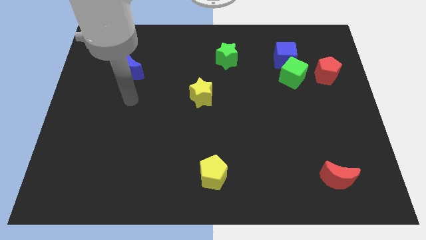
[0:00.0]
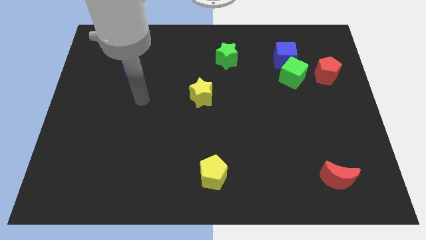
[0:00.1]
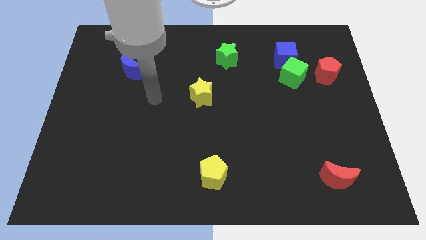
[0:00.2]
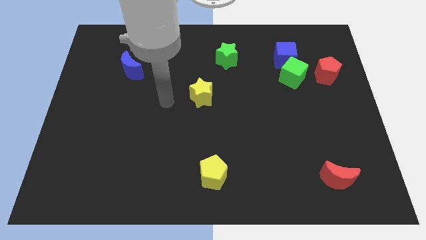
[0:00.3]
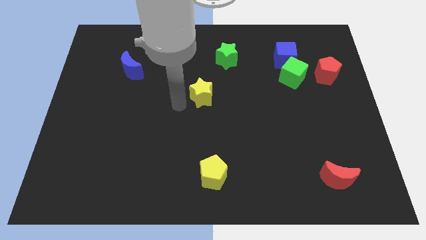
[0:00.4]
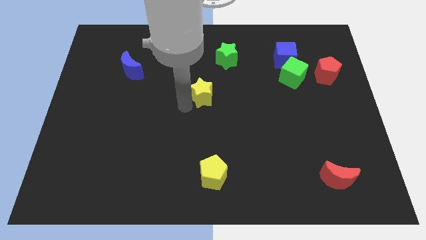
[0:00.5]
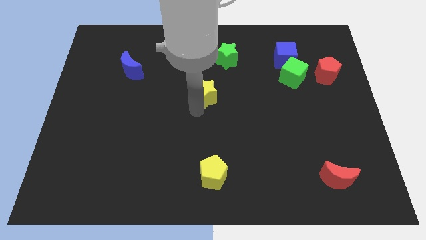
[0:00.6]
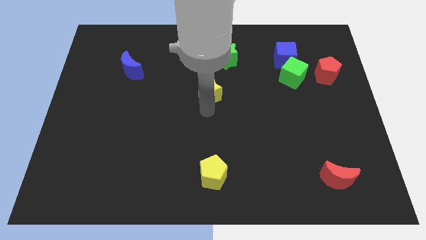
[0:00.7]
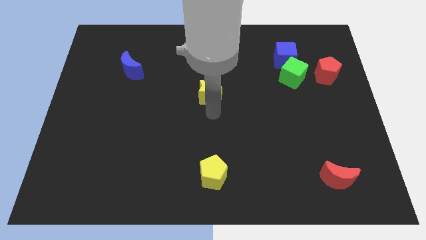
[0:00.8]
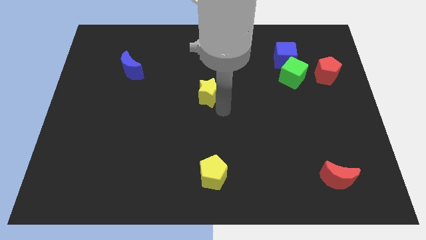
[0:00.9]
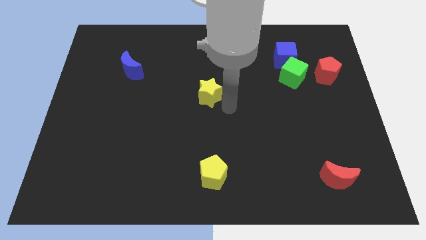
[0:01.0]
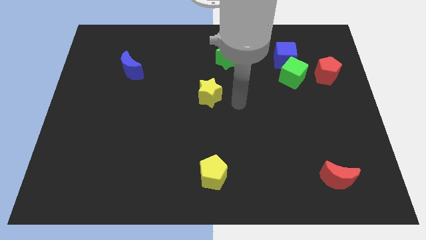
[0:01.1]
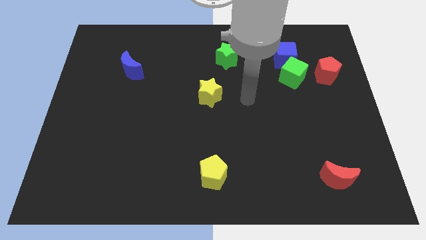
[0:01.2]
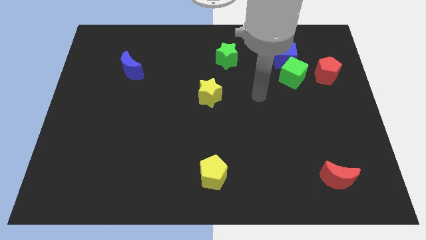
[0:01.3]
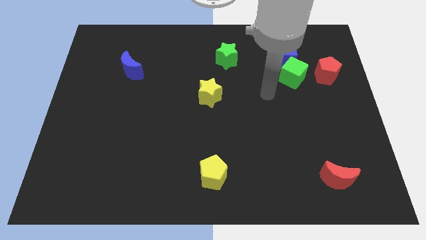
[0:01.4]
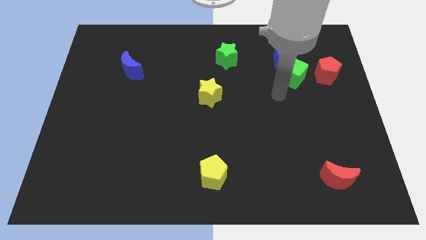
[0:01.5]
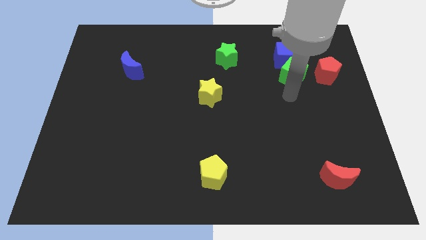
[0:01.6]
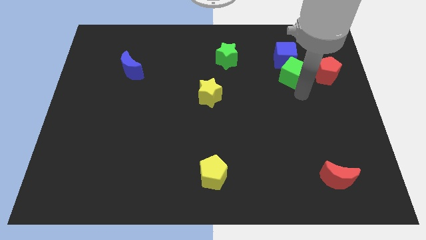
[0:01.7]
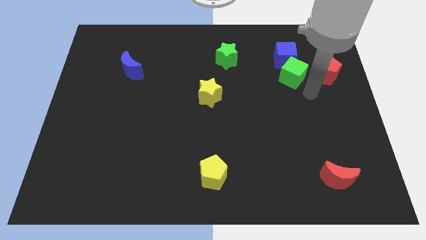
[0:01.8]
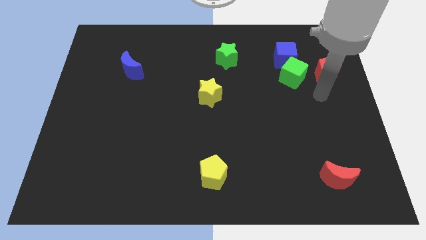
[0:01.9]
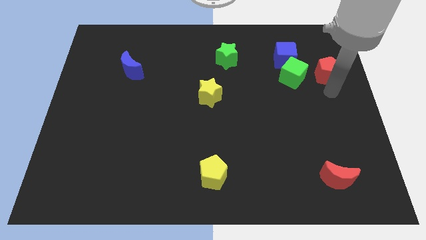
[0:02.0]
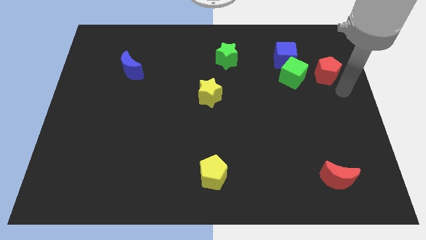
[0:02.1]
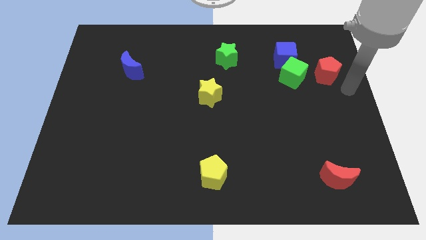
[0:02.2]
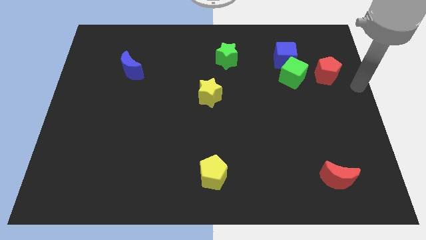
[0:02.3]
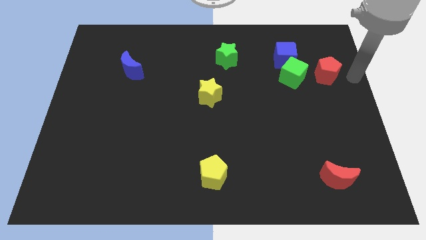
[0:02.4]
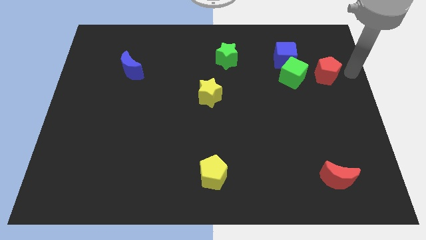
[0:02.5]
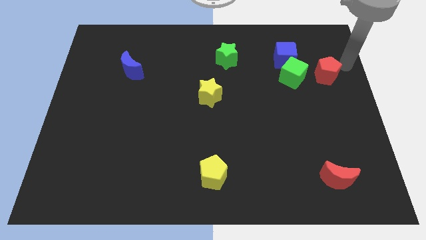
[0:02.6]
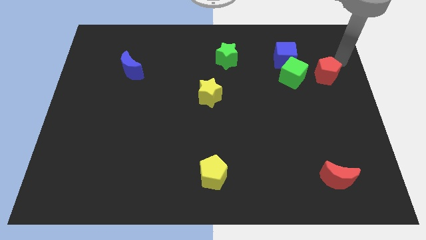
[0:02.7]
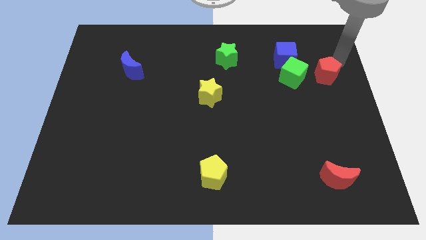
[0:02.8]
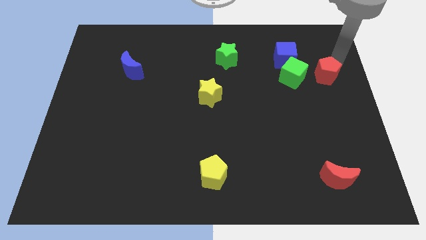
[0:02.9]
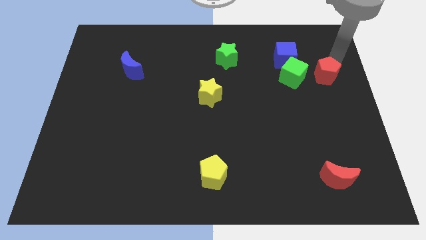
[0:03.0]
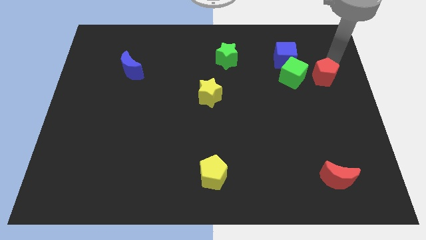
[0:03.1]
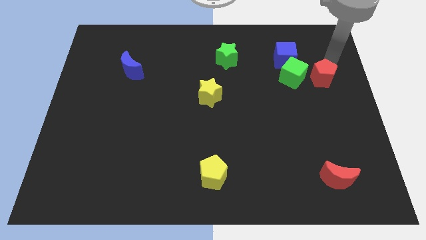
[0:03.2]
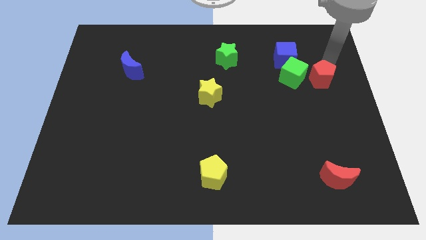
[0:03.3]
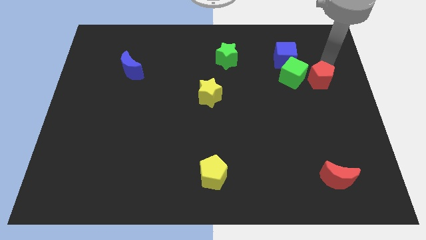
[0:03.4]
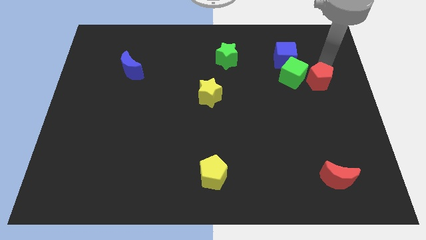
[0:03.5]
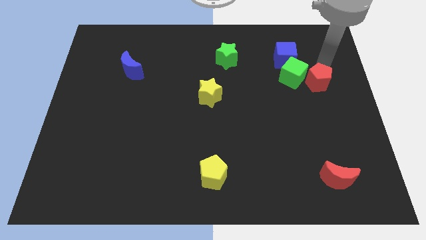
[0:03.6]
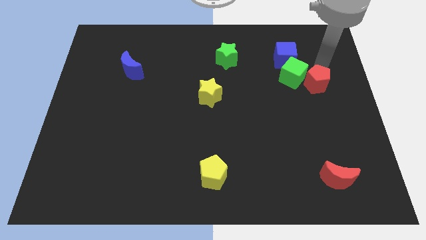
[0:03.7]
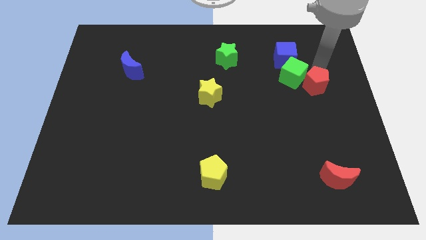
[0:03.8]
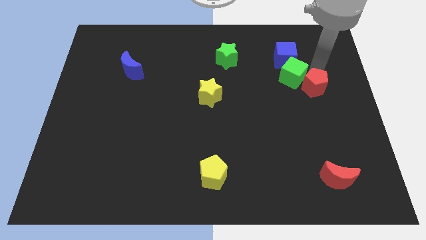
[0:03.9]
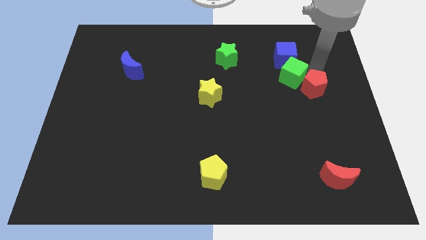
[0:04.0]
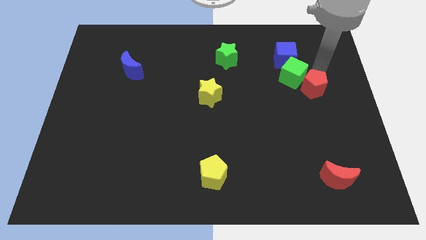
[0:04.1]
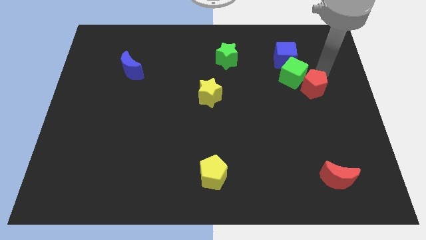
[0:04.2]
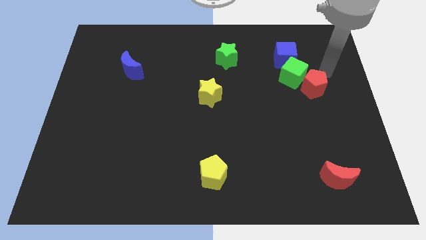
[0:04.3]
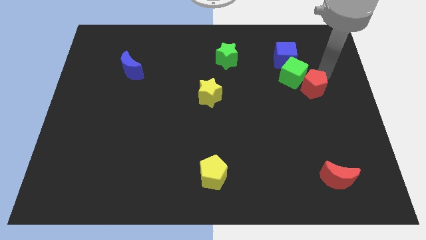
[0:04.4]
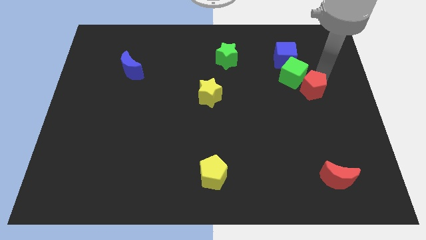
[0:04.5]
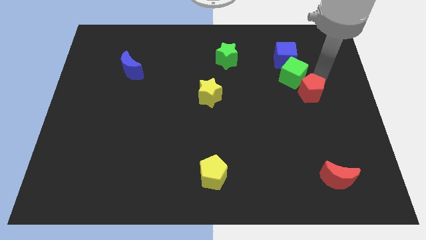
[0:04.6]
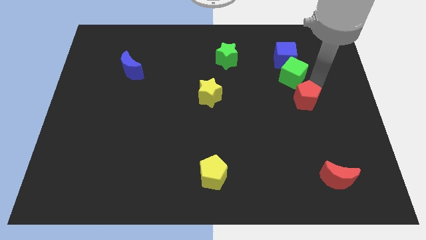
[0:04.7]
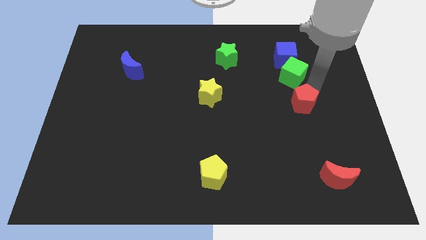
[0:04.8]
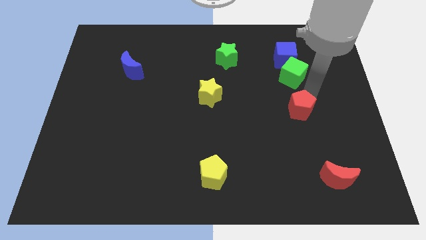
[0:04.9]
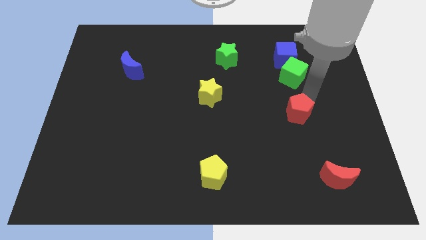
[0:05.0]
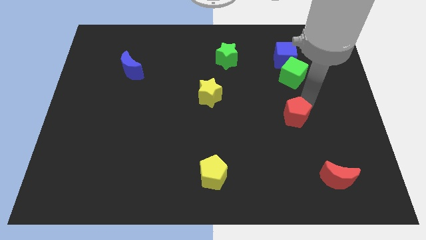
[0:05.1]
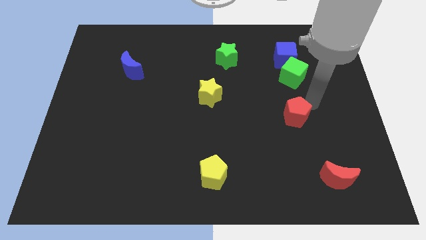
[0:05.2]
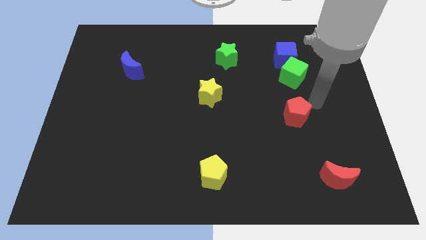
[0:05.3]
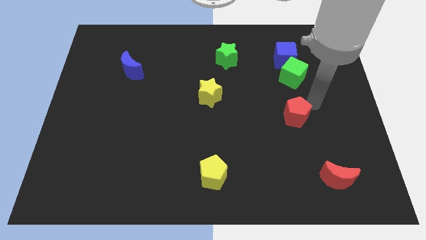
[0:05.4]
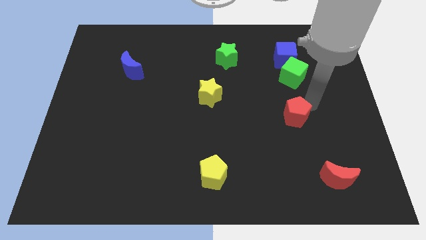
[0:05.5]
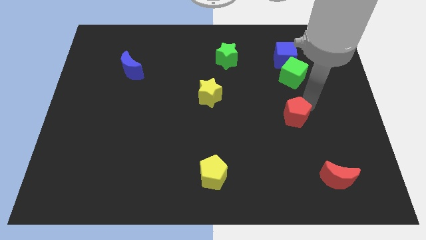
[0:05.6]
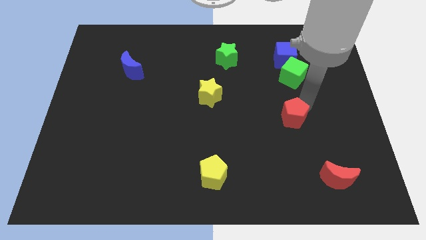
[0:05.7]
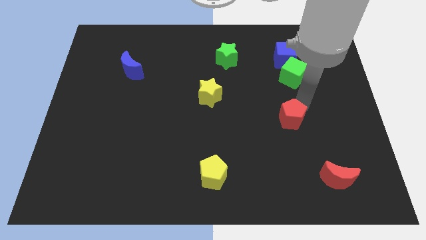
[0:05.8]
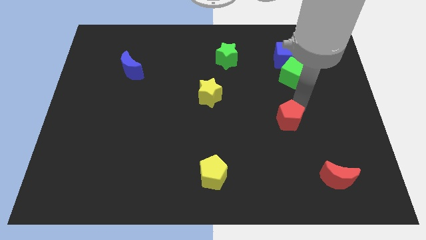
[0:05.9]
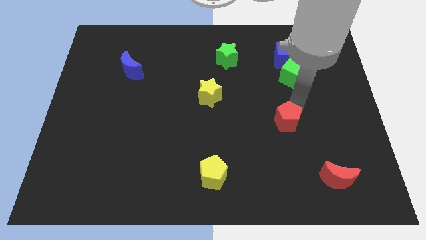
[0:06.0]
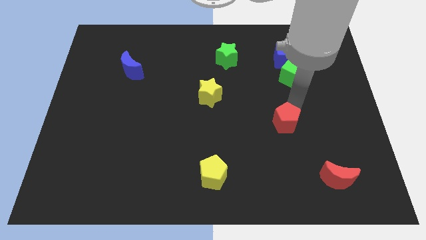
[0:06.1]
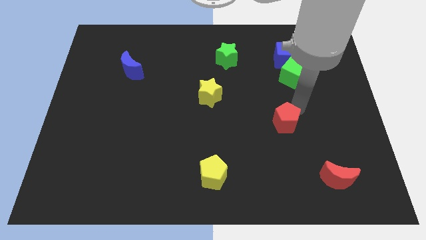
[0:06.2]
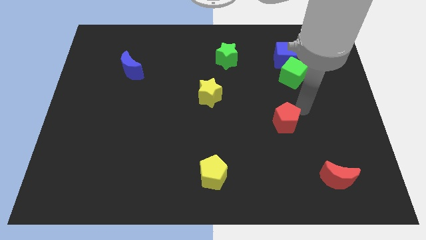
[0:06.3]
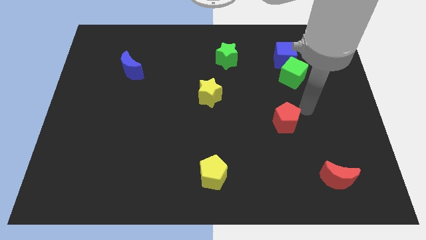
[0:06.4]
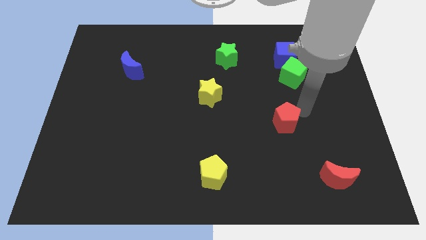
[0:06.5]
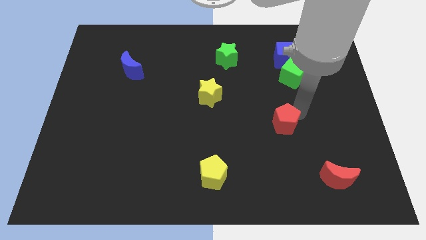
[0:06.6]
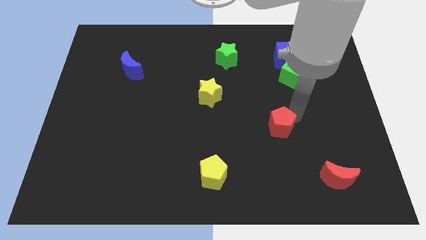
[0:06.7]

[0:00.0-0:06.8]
move the red pentagon downwards and to the left

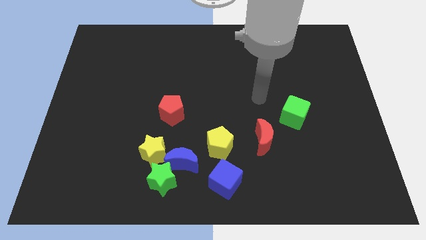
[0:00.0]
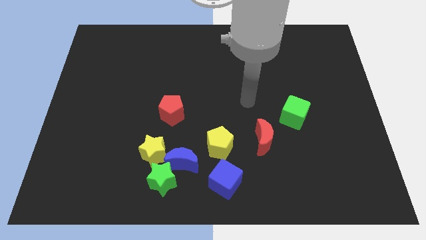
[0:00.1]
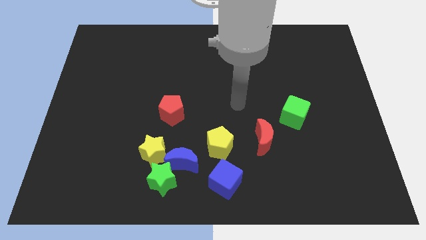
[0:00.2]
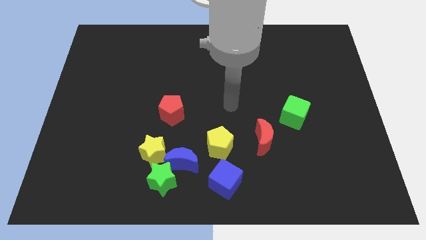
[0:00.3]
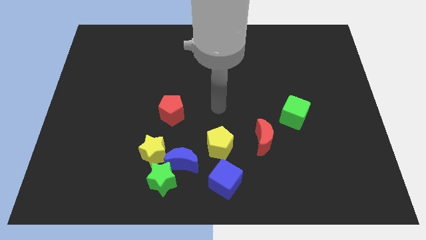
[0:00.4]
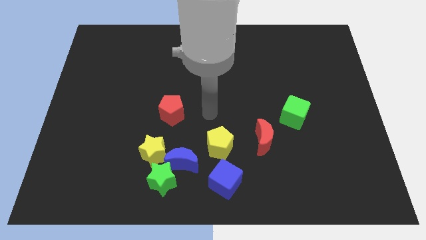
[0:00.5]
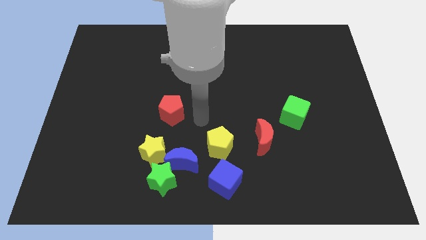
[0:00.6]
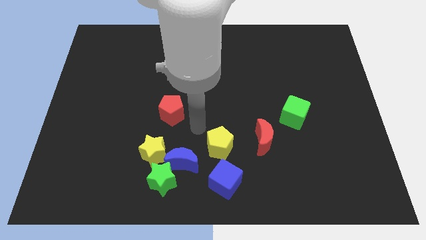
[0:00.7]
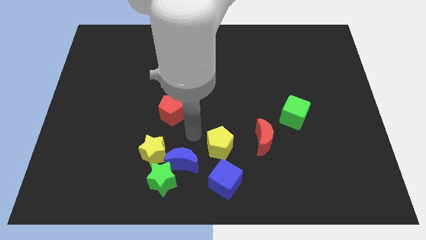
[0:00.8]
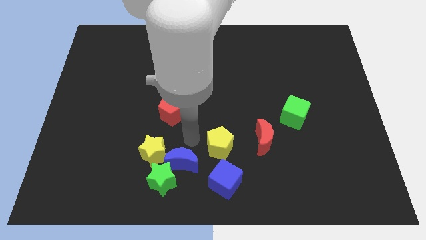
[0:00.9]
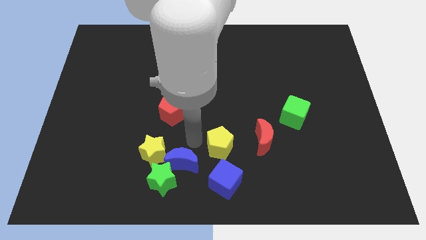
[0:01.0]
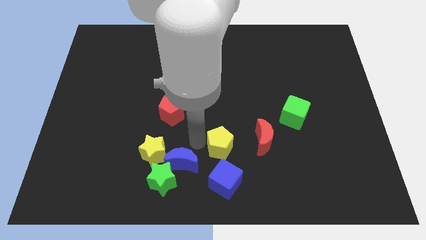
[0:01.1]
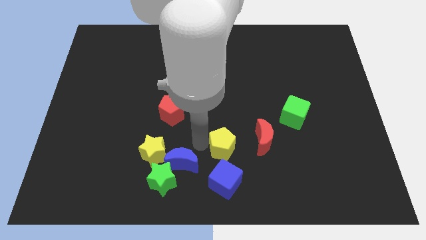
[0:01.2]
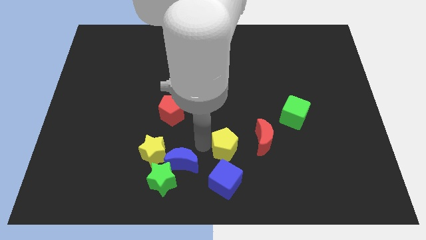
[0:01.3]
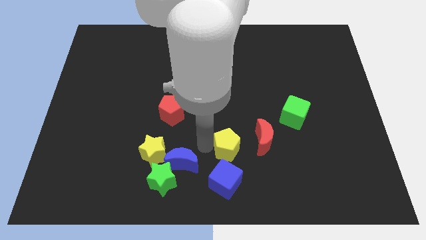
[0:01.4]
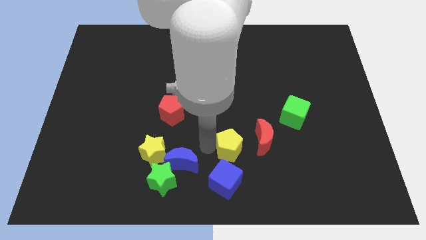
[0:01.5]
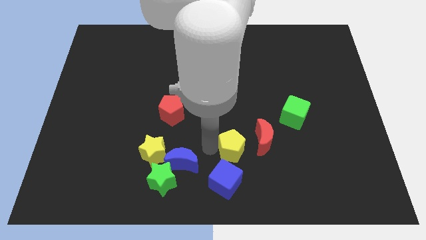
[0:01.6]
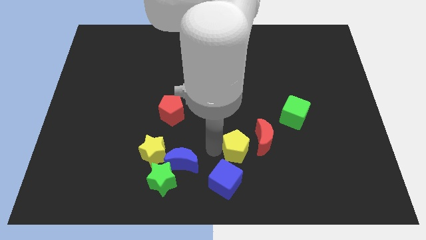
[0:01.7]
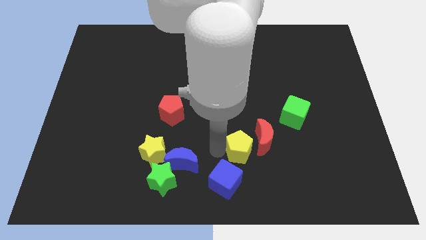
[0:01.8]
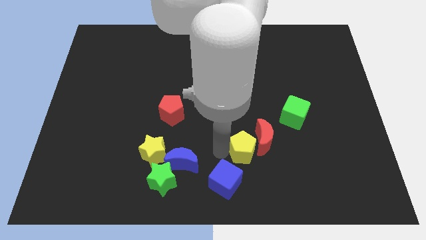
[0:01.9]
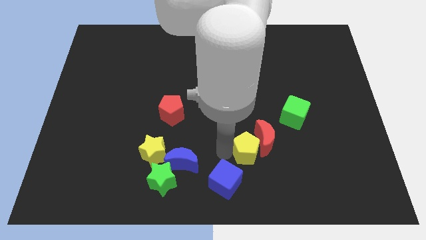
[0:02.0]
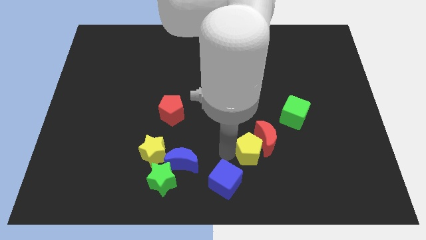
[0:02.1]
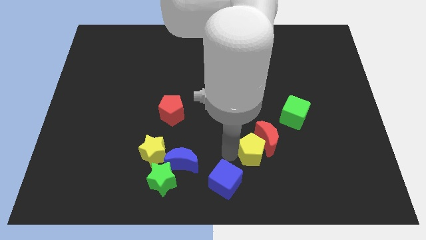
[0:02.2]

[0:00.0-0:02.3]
slide the yellow pentagon to the right somewhat
